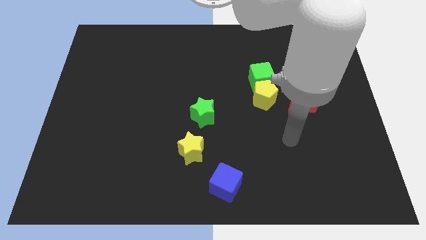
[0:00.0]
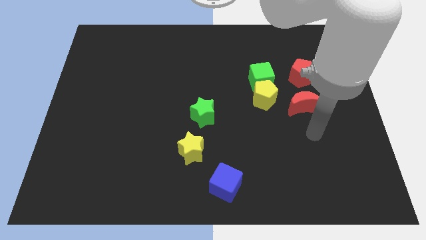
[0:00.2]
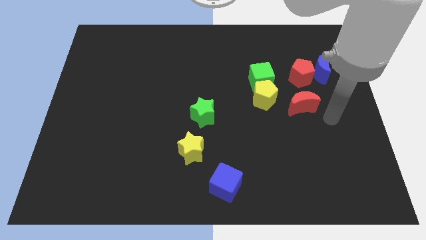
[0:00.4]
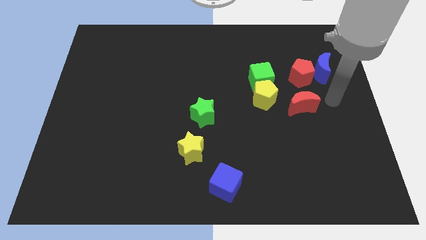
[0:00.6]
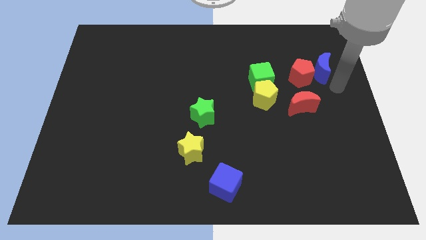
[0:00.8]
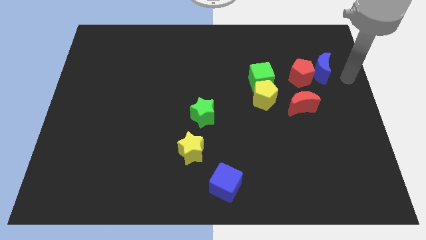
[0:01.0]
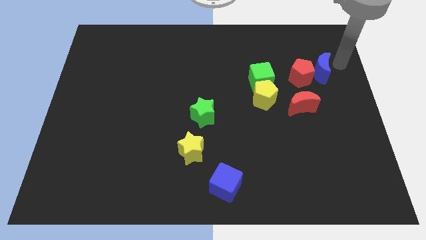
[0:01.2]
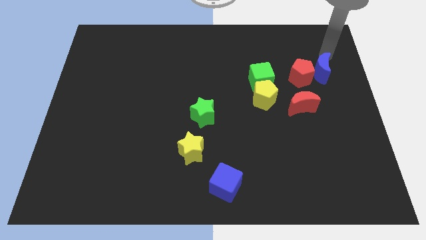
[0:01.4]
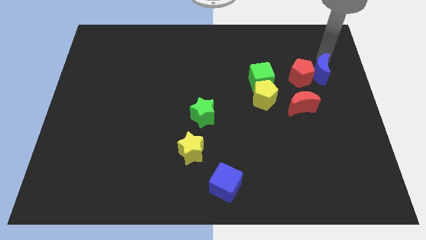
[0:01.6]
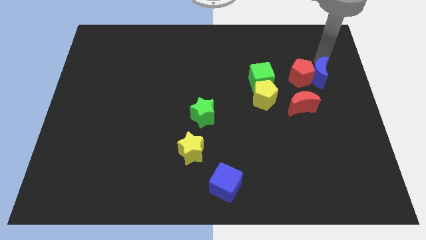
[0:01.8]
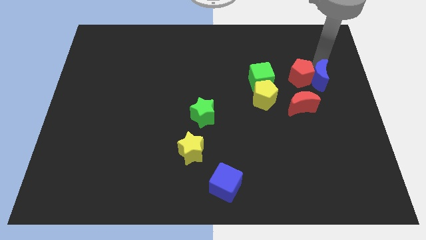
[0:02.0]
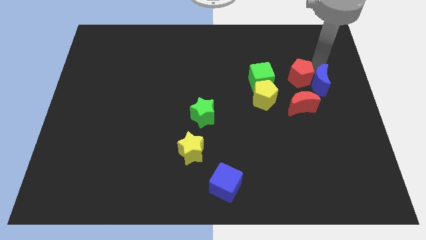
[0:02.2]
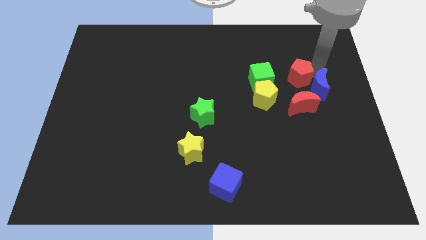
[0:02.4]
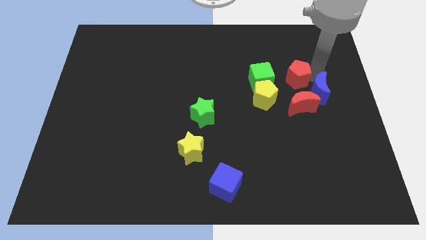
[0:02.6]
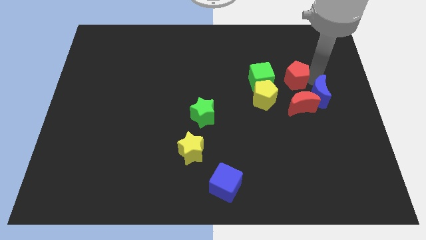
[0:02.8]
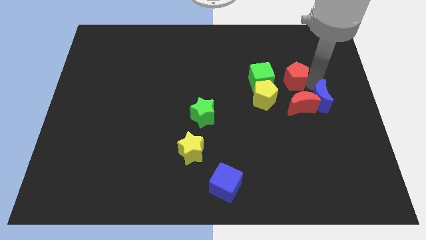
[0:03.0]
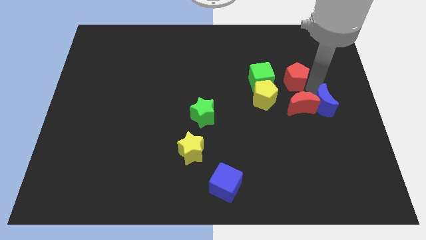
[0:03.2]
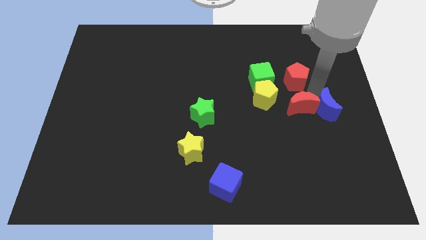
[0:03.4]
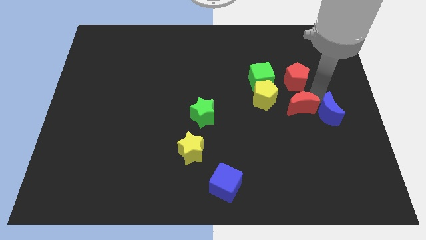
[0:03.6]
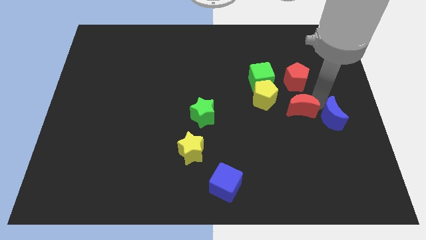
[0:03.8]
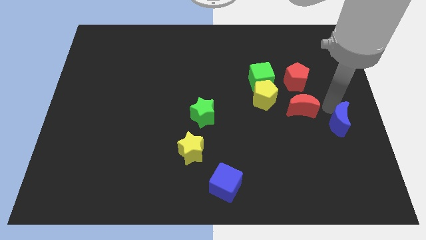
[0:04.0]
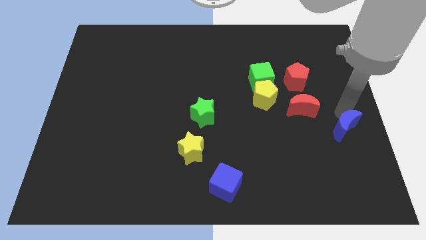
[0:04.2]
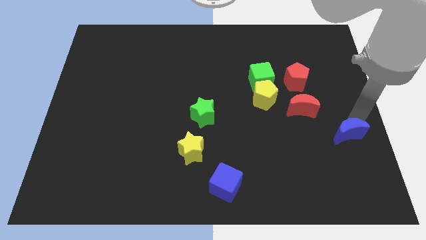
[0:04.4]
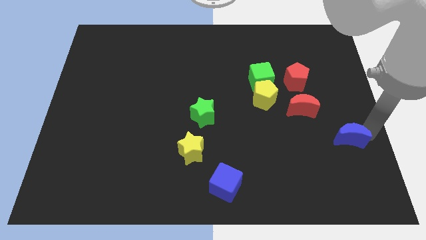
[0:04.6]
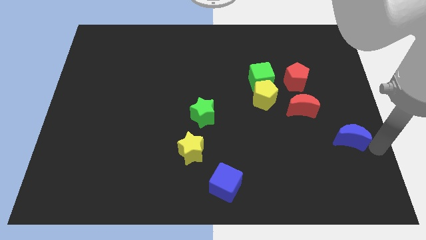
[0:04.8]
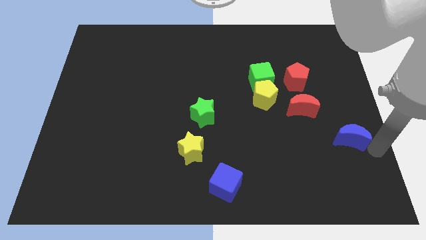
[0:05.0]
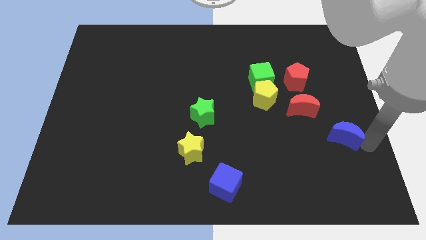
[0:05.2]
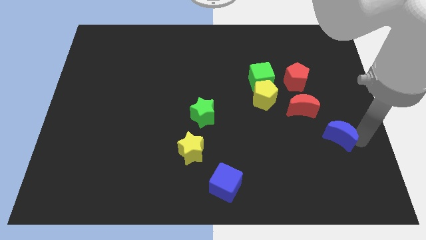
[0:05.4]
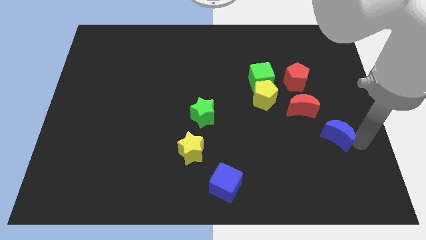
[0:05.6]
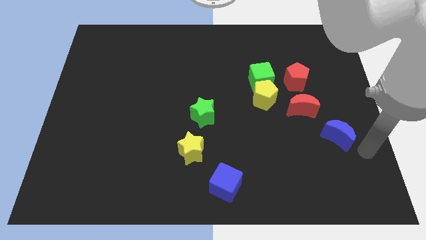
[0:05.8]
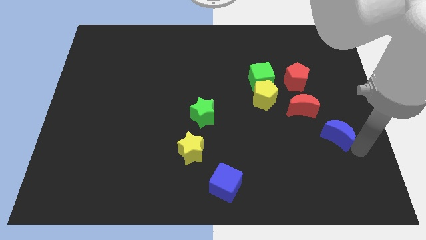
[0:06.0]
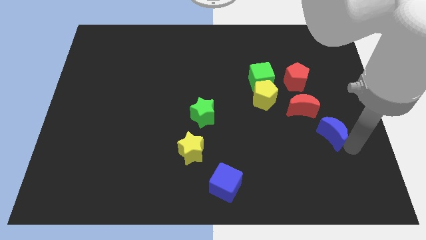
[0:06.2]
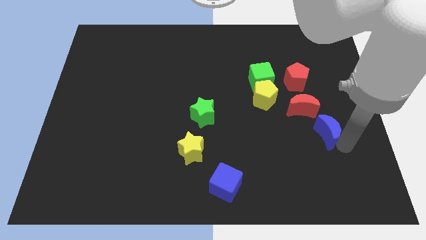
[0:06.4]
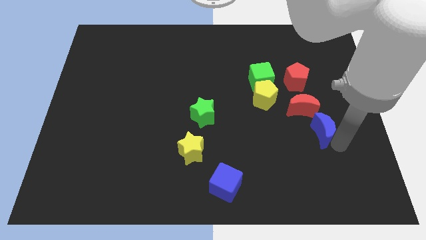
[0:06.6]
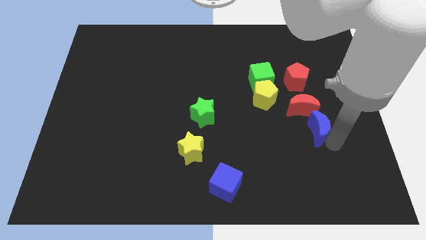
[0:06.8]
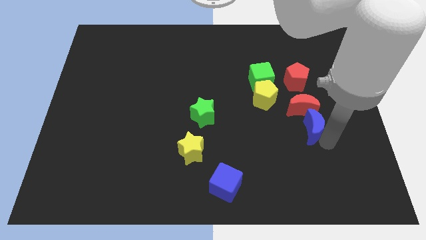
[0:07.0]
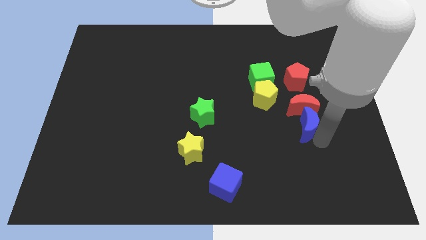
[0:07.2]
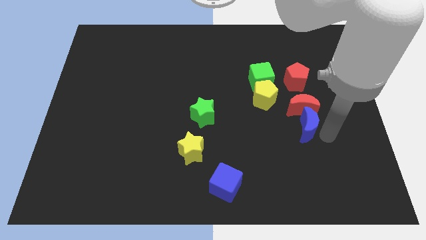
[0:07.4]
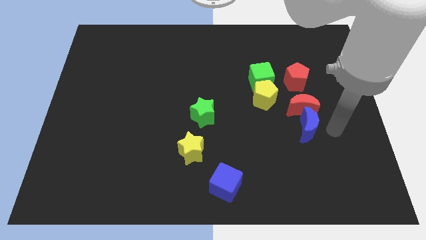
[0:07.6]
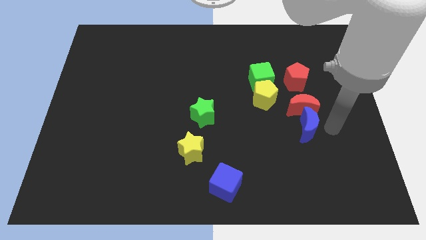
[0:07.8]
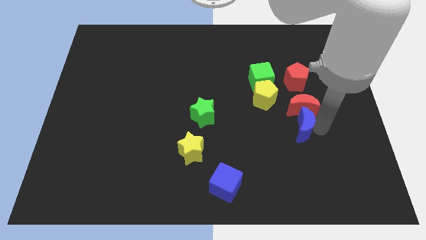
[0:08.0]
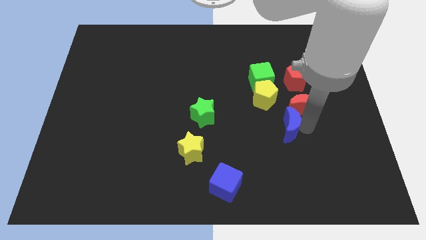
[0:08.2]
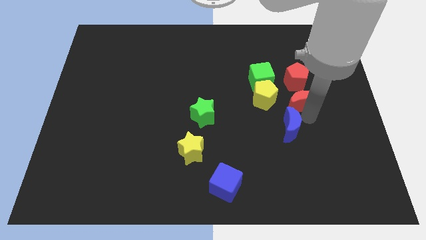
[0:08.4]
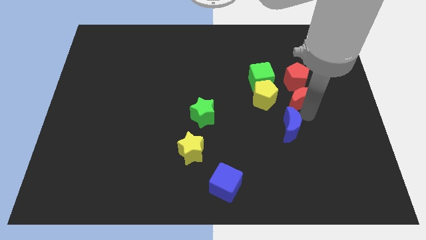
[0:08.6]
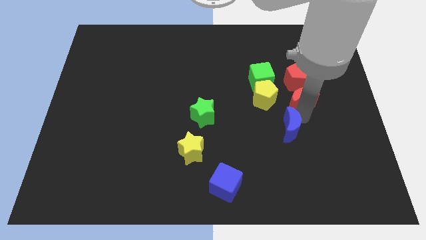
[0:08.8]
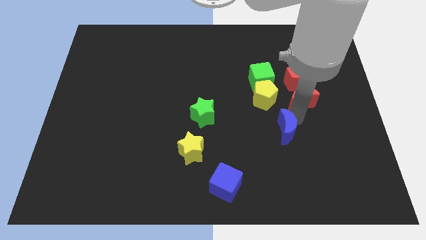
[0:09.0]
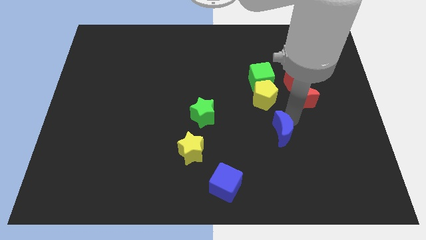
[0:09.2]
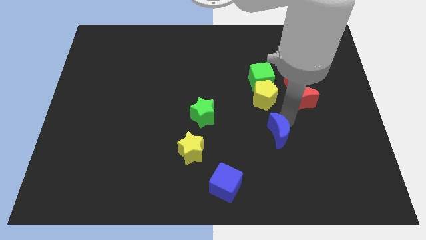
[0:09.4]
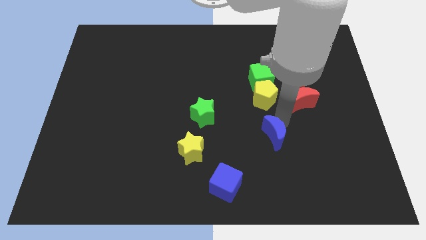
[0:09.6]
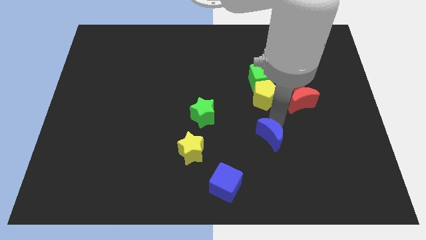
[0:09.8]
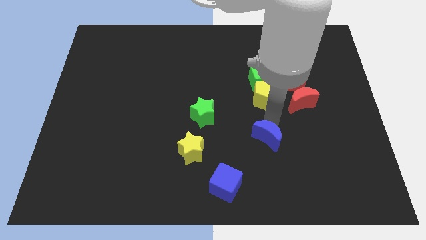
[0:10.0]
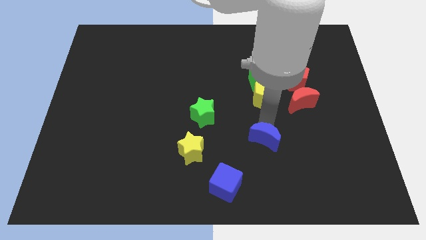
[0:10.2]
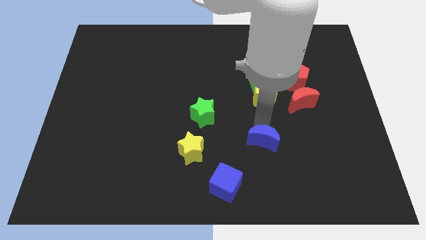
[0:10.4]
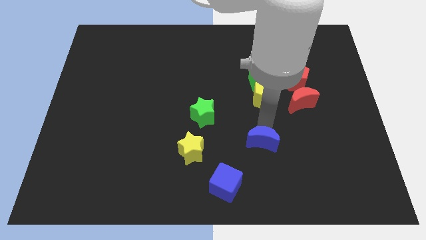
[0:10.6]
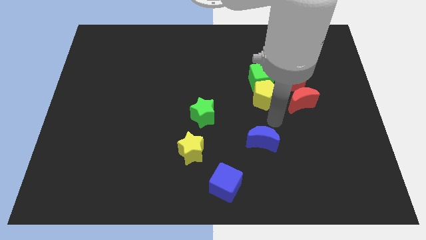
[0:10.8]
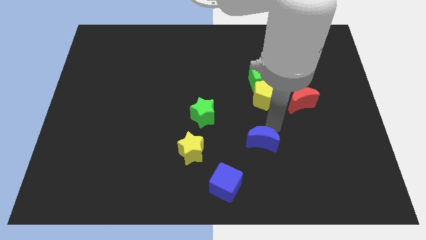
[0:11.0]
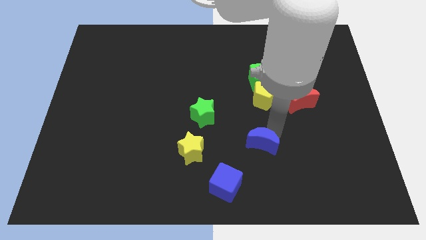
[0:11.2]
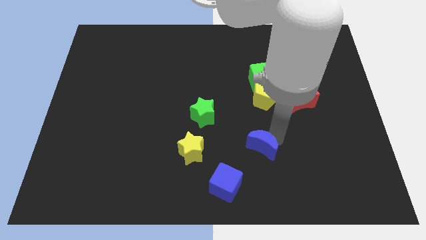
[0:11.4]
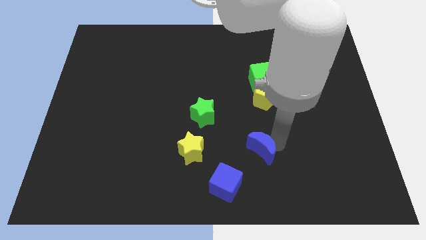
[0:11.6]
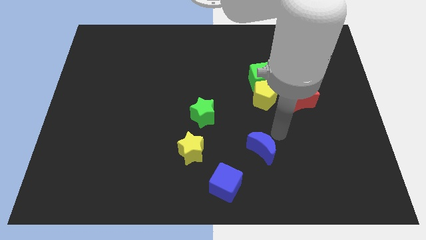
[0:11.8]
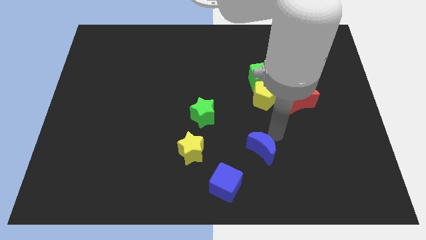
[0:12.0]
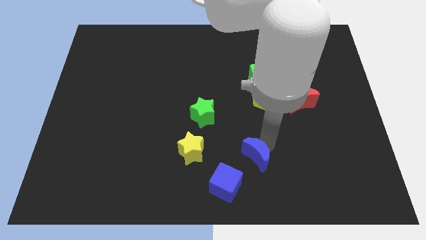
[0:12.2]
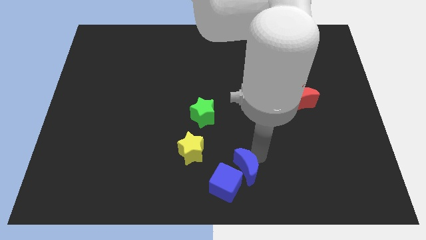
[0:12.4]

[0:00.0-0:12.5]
move the blue moon close to the blue cube

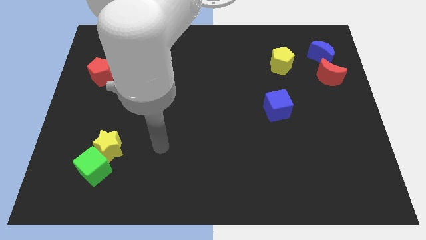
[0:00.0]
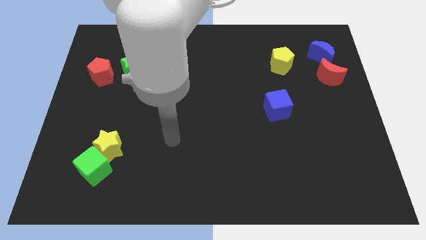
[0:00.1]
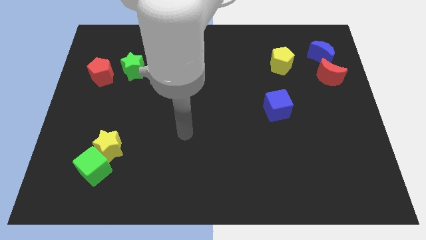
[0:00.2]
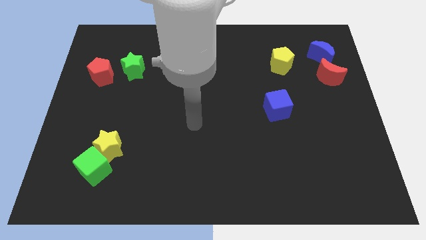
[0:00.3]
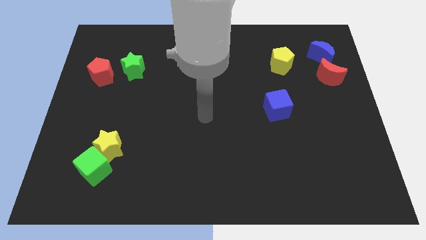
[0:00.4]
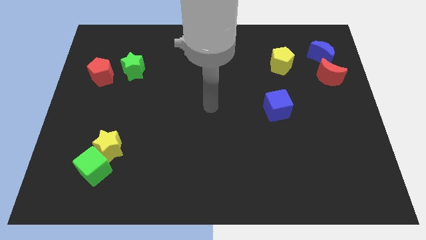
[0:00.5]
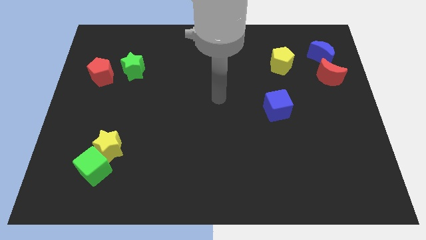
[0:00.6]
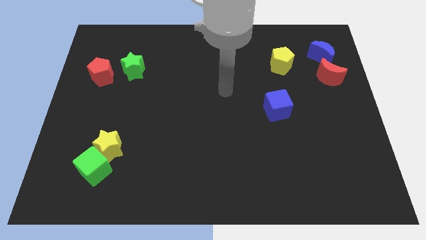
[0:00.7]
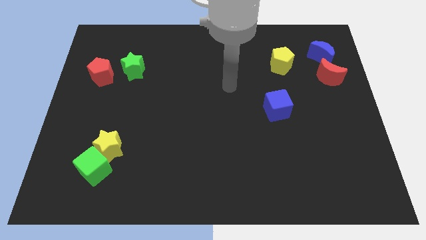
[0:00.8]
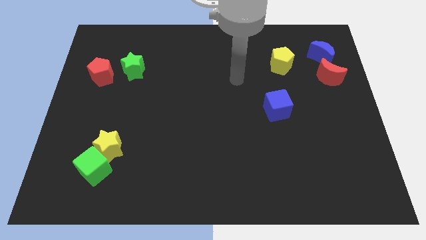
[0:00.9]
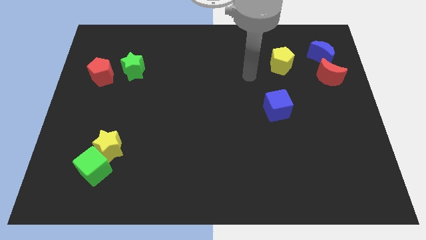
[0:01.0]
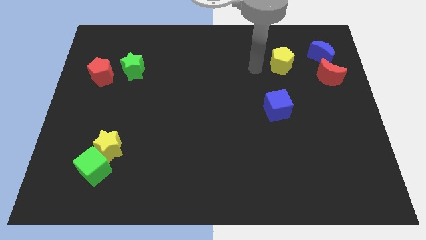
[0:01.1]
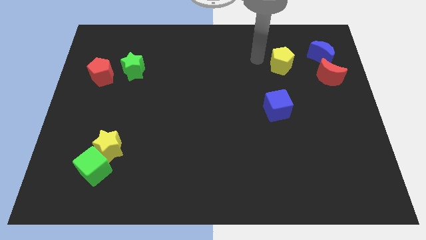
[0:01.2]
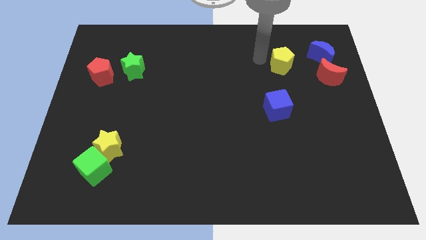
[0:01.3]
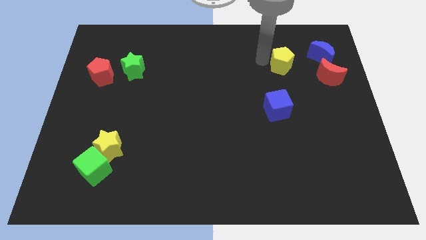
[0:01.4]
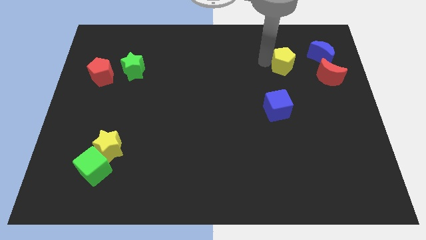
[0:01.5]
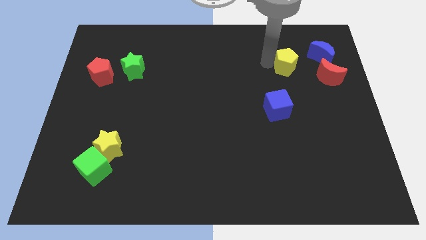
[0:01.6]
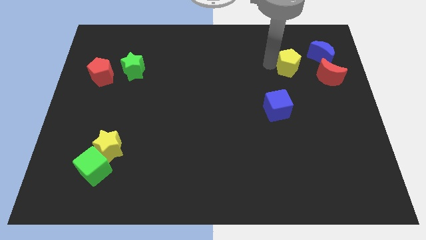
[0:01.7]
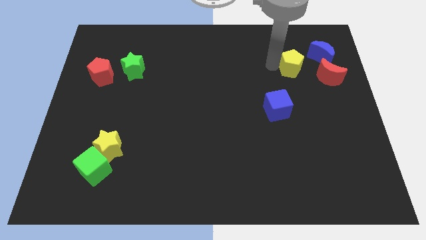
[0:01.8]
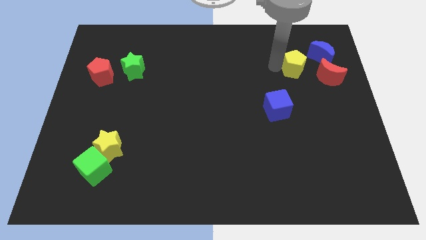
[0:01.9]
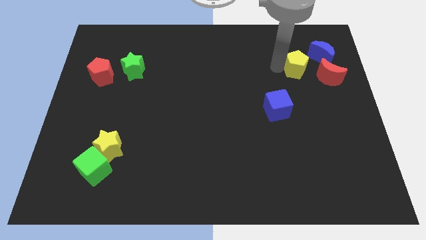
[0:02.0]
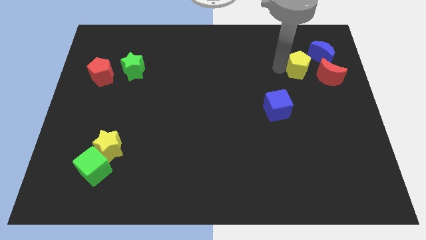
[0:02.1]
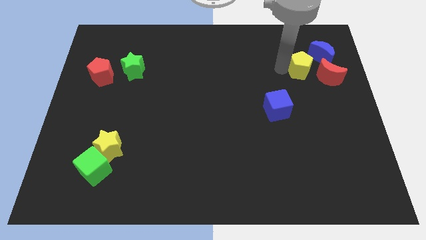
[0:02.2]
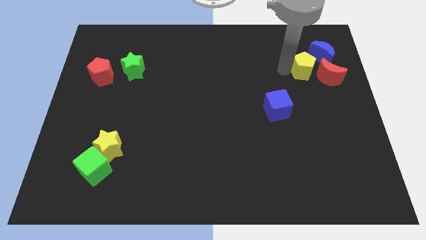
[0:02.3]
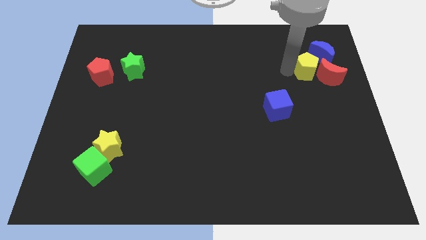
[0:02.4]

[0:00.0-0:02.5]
push the yellow pentagon close to the red moon
